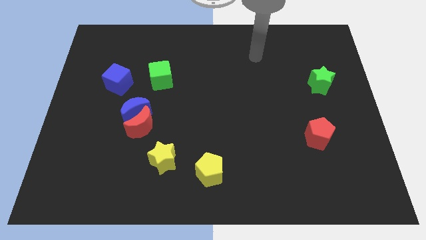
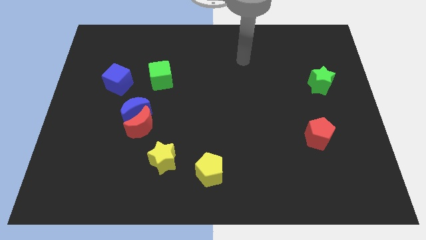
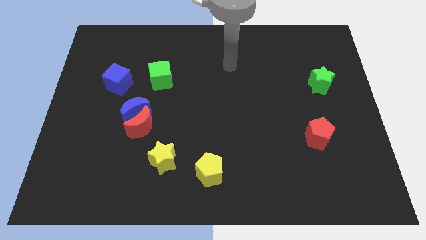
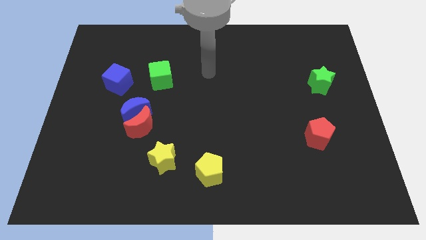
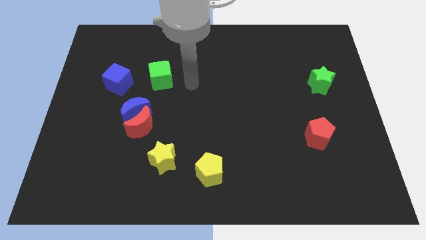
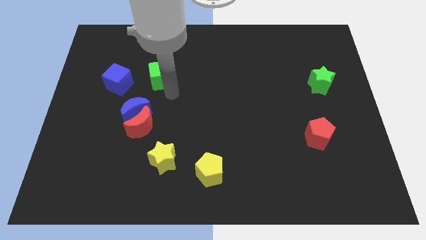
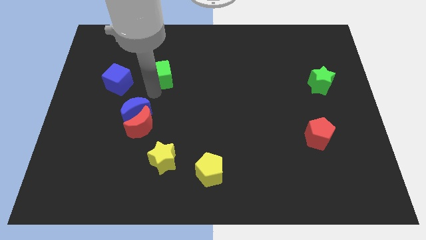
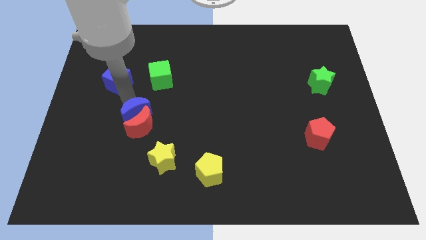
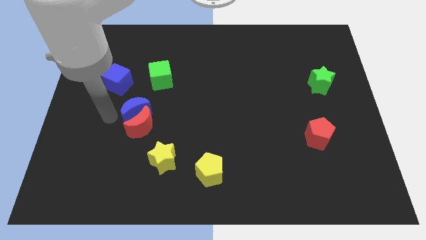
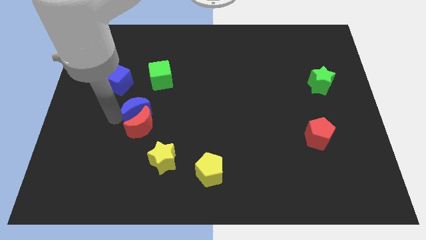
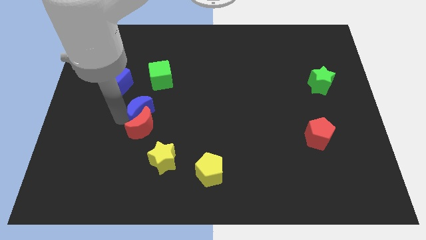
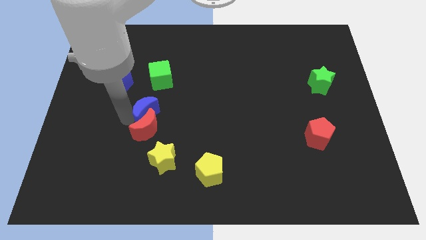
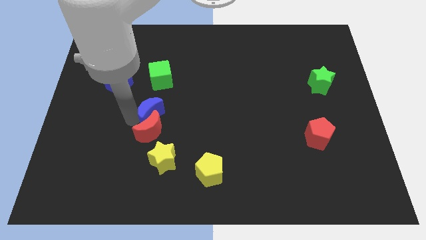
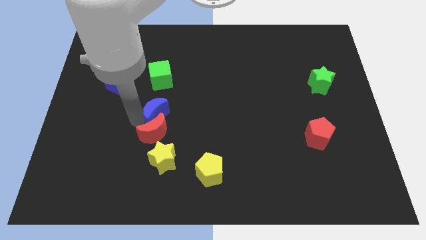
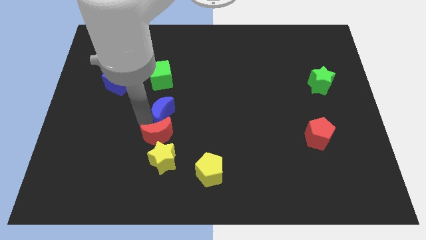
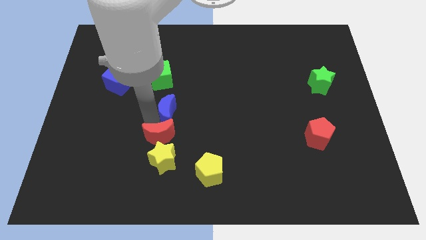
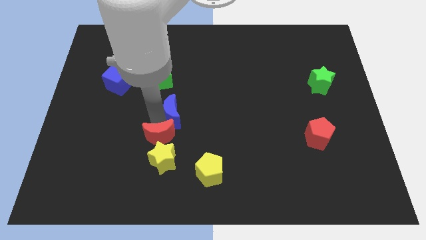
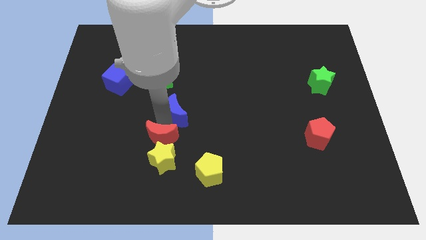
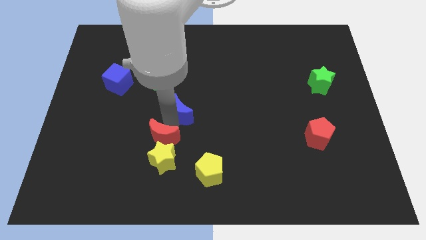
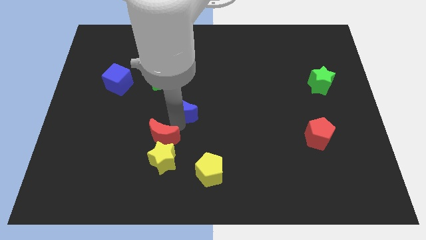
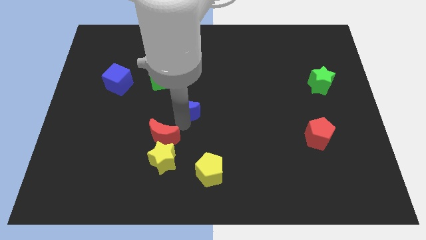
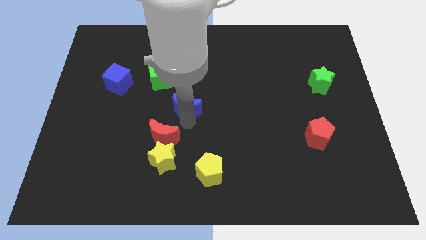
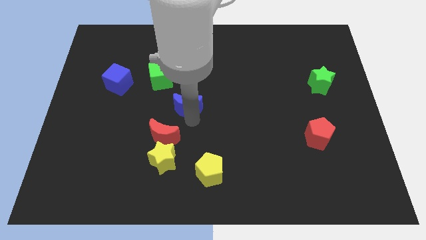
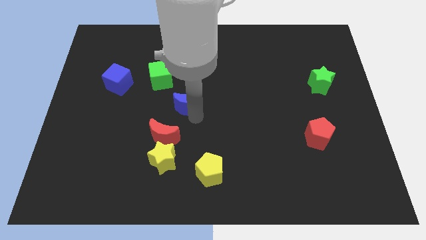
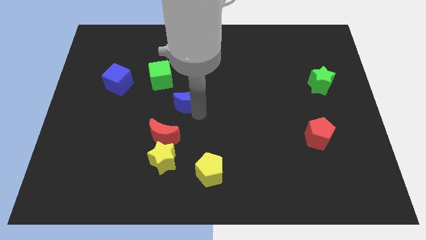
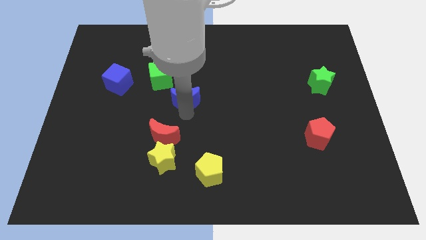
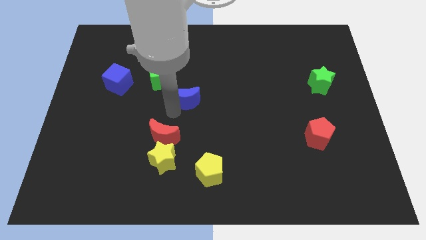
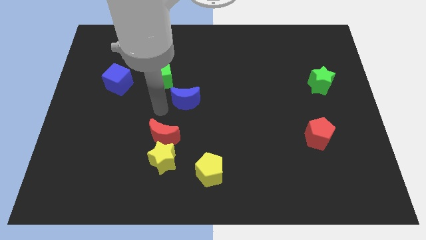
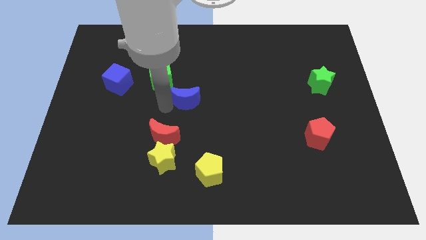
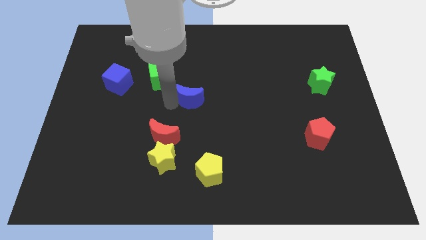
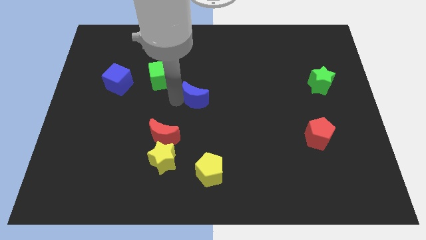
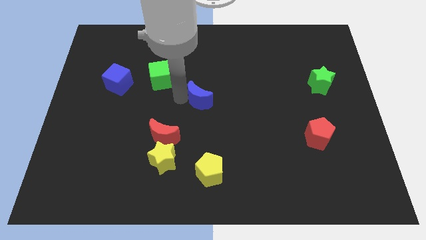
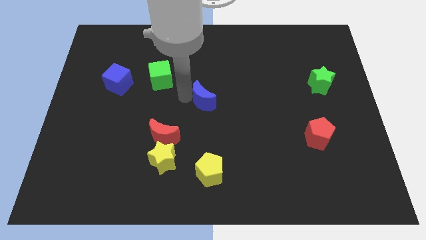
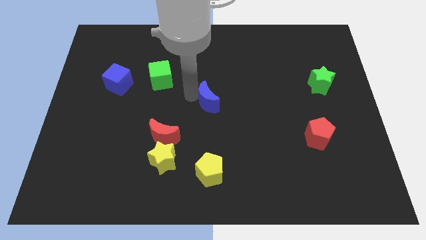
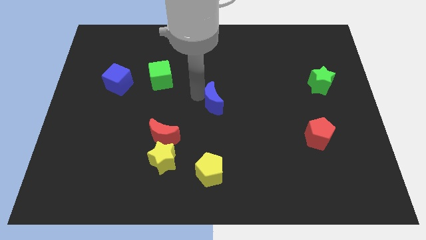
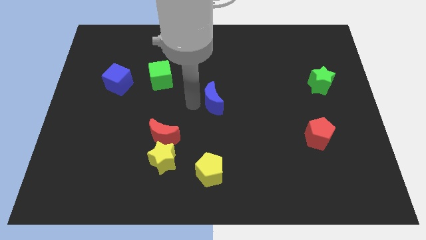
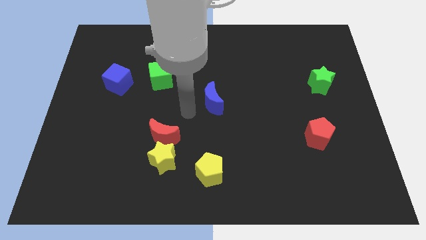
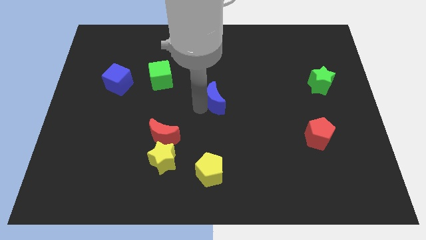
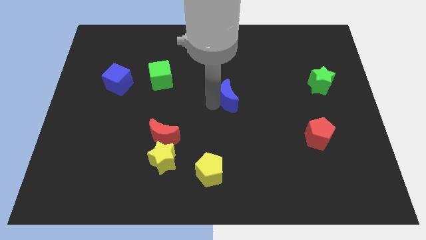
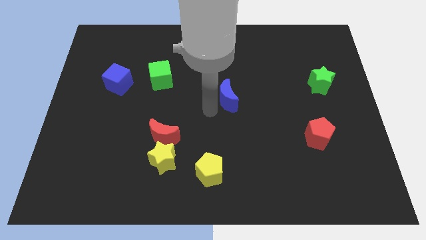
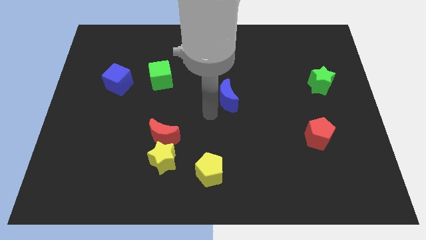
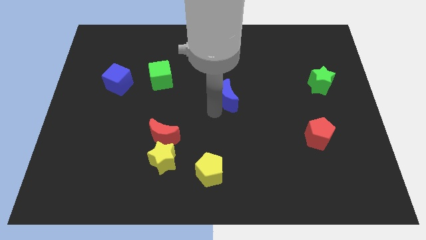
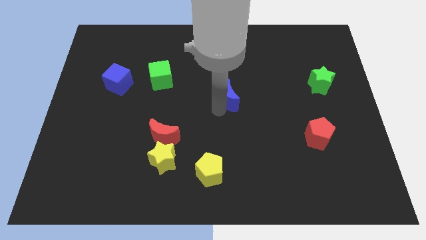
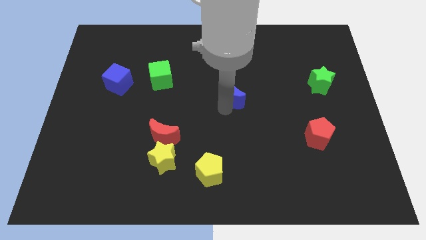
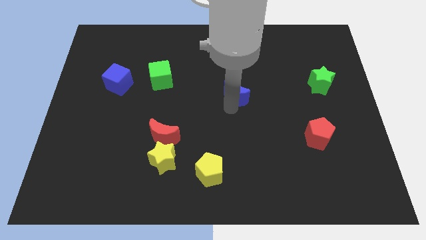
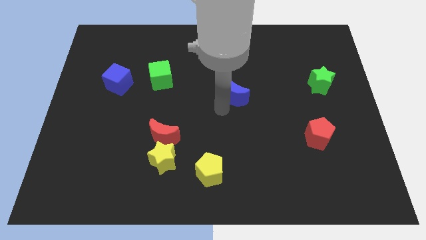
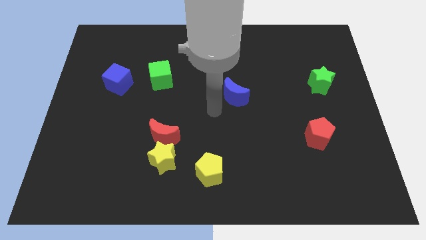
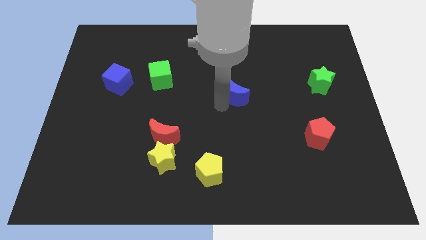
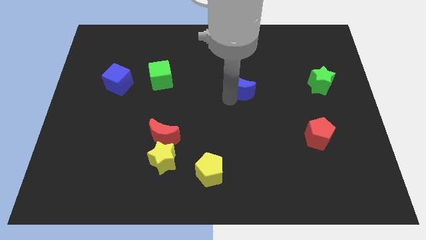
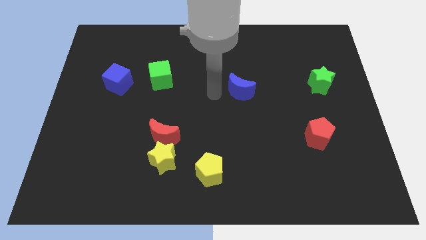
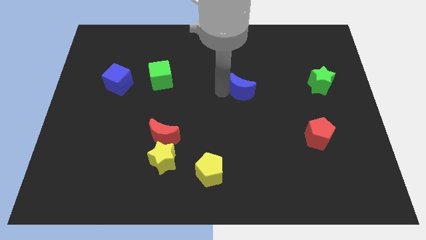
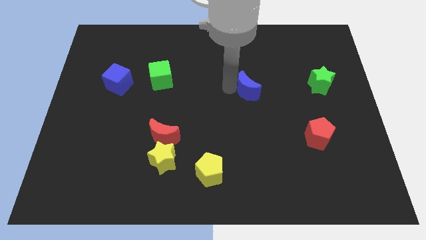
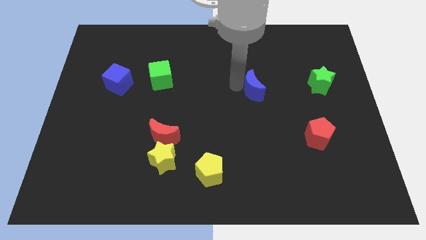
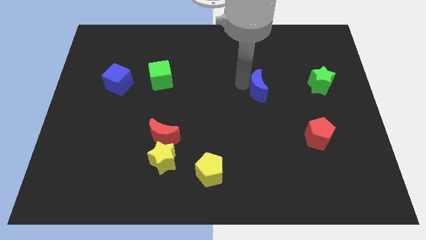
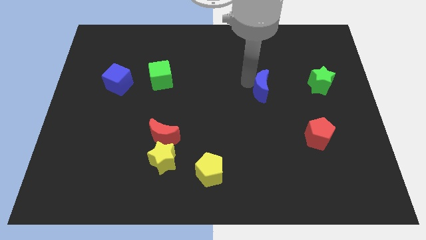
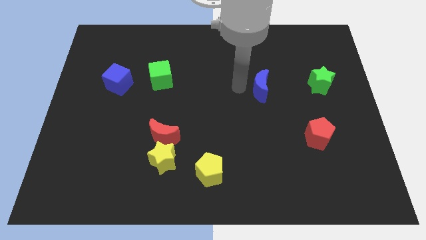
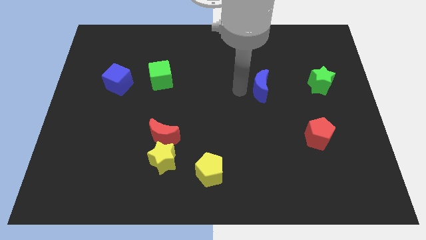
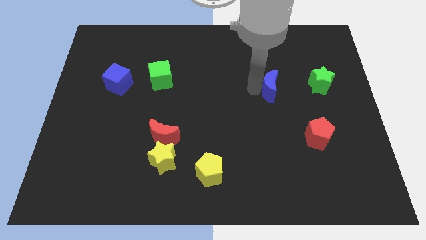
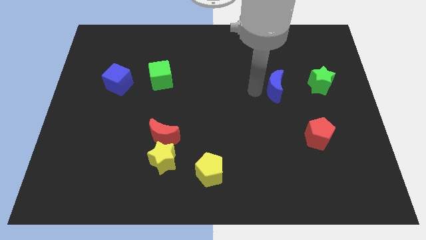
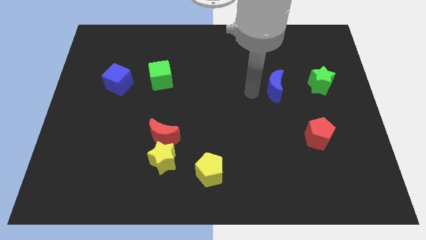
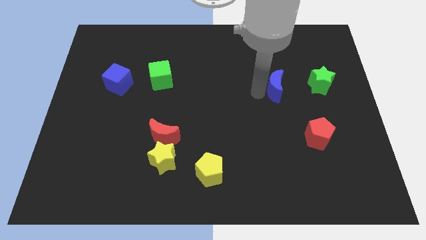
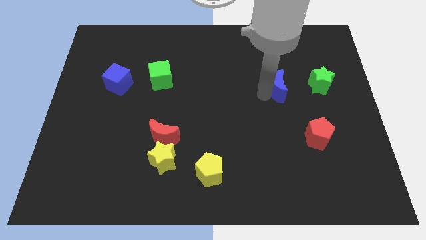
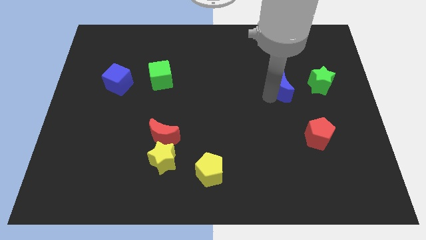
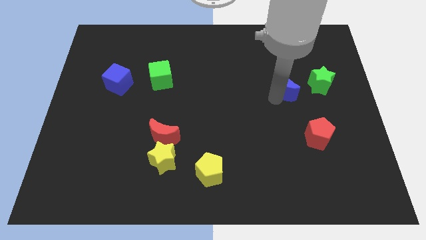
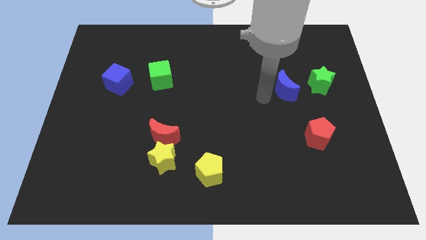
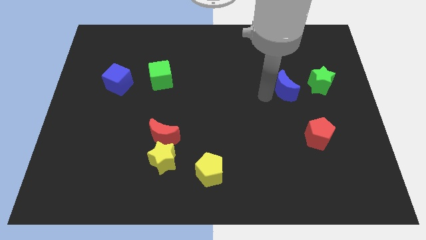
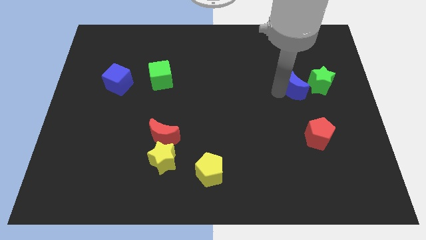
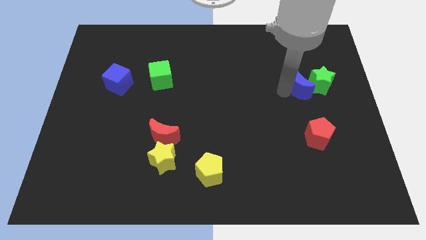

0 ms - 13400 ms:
push the blue moon close to the green star

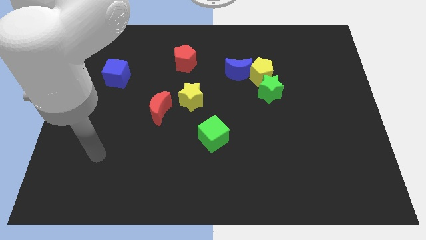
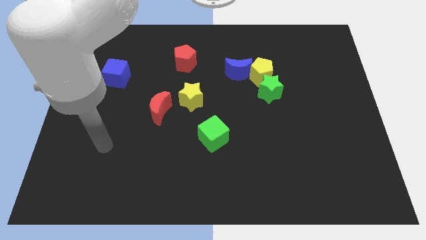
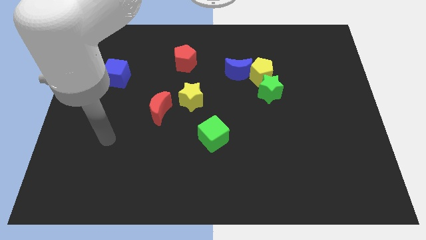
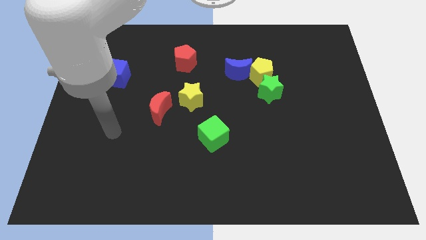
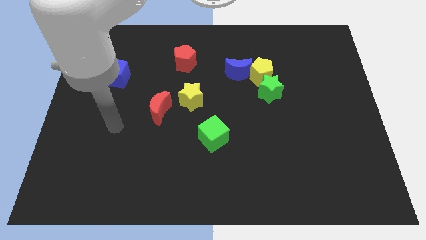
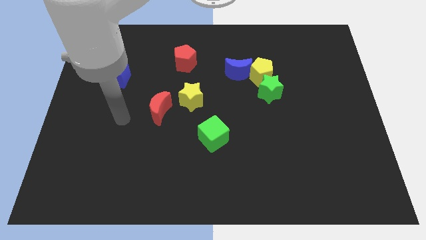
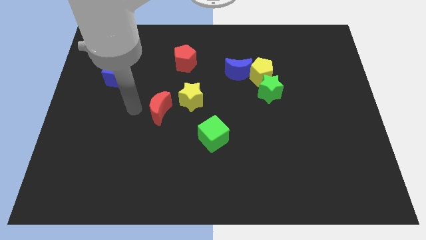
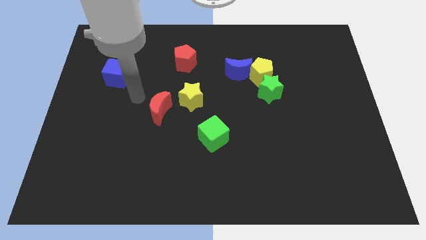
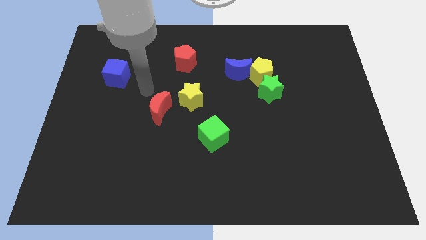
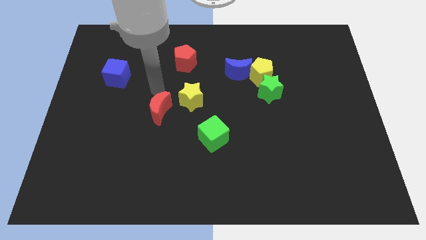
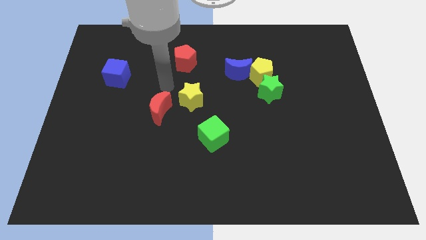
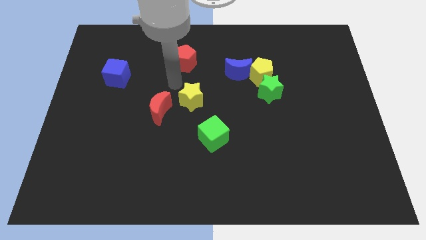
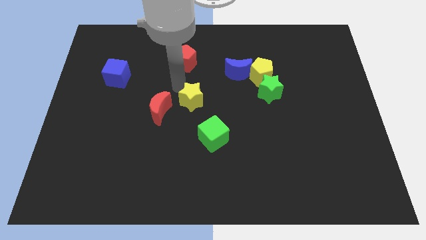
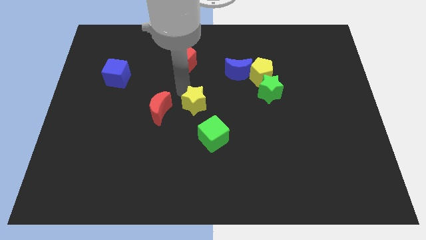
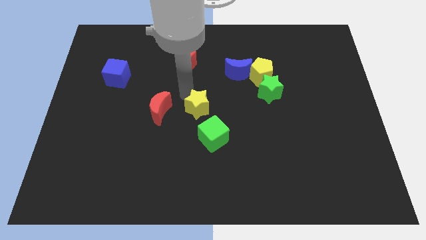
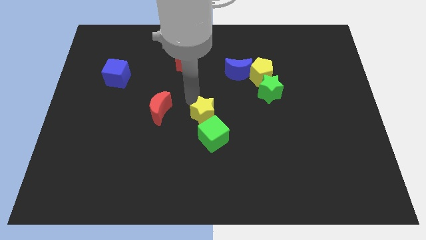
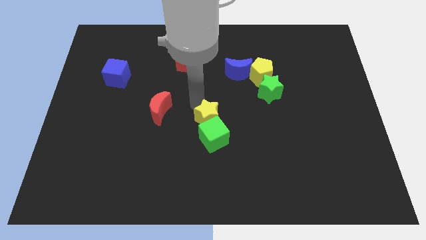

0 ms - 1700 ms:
push the yellow star close to the green cube
